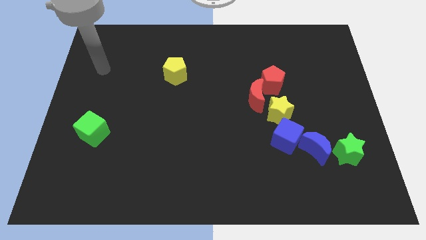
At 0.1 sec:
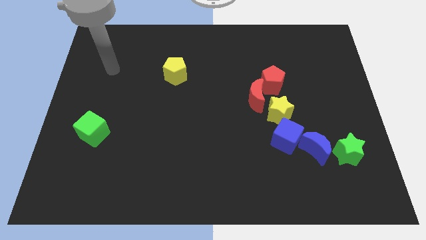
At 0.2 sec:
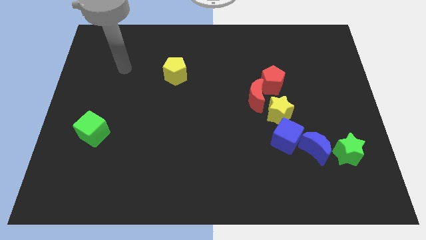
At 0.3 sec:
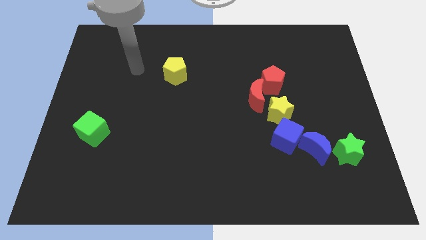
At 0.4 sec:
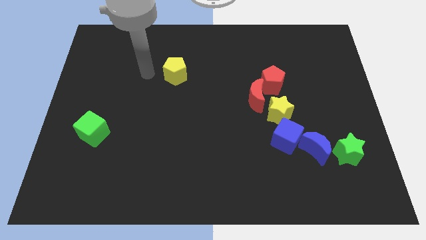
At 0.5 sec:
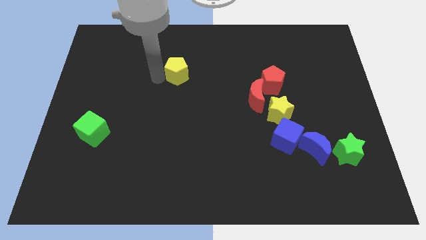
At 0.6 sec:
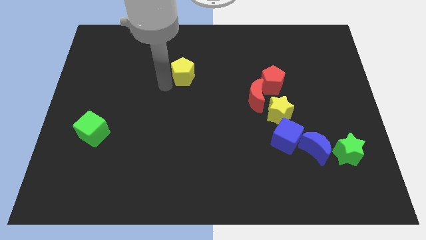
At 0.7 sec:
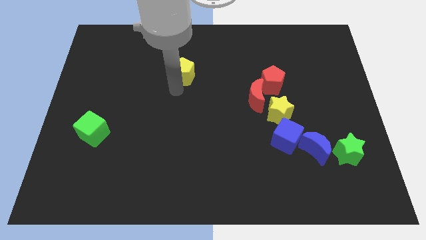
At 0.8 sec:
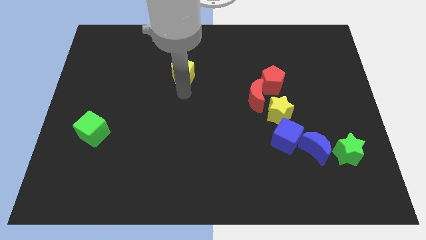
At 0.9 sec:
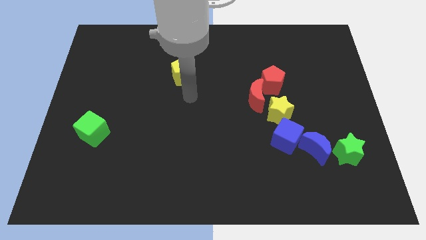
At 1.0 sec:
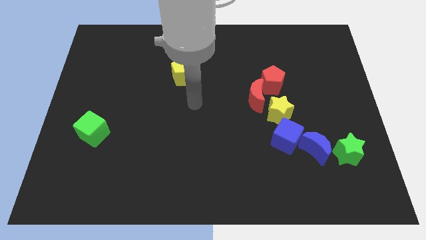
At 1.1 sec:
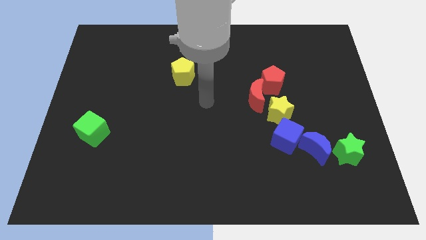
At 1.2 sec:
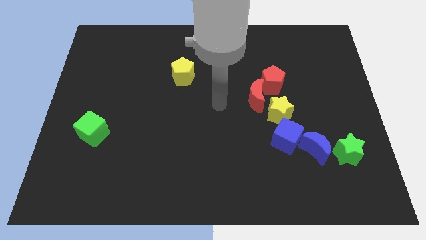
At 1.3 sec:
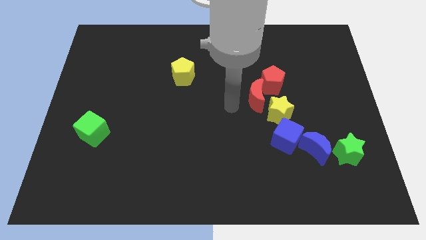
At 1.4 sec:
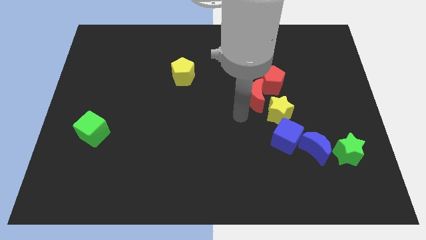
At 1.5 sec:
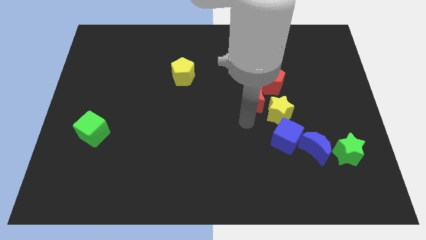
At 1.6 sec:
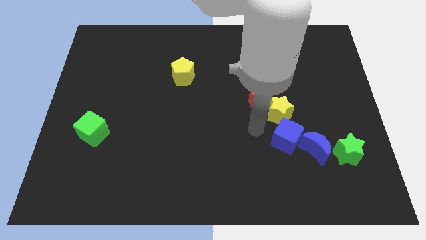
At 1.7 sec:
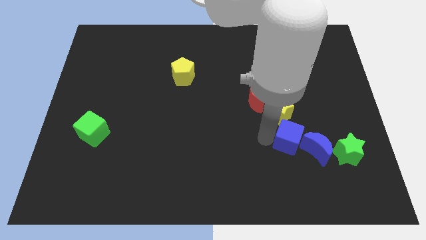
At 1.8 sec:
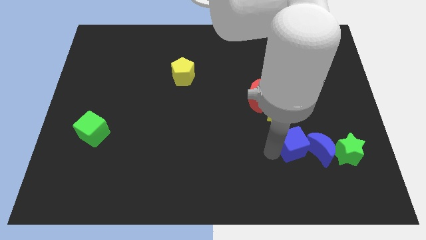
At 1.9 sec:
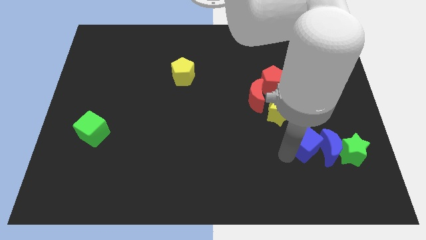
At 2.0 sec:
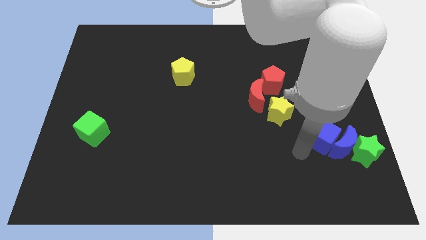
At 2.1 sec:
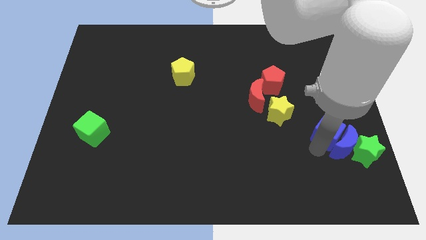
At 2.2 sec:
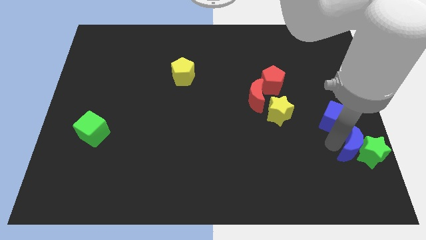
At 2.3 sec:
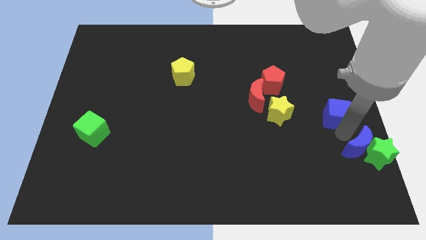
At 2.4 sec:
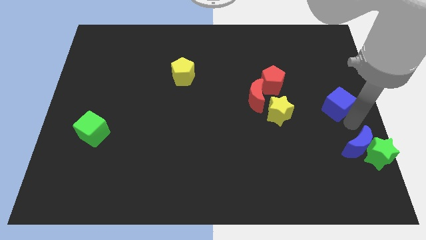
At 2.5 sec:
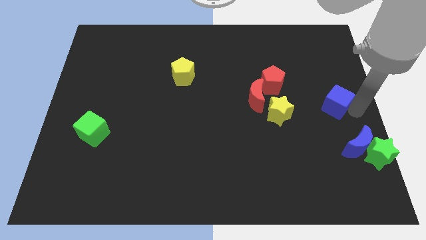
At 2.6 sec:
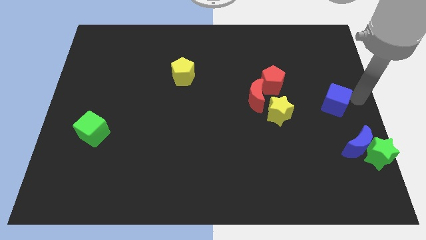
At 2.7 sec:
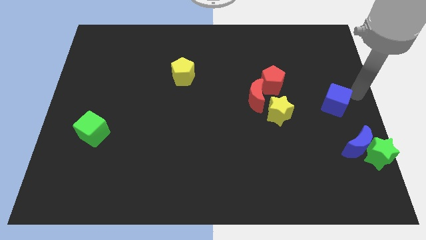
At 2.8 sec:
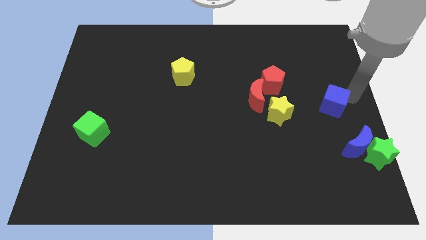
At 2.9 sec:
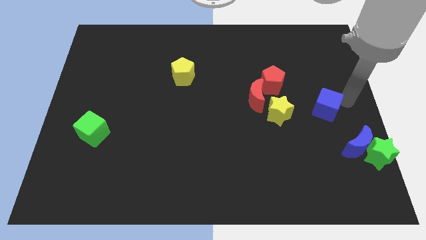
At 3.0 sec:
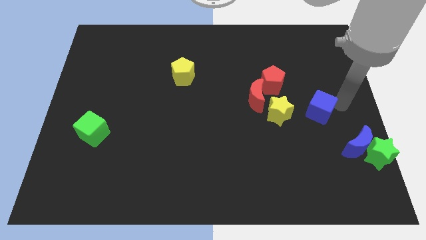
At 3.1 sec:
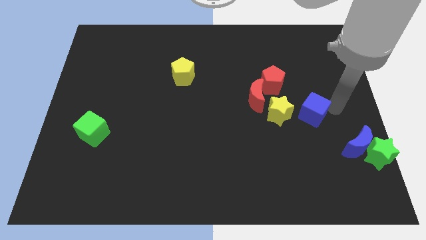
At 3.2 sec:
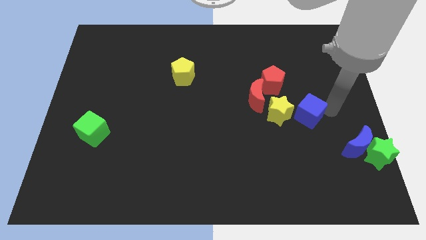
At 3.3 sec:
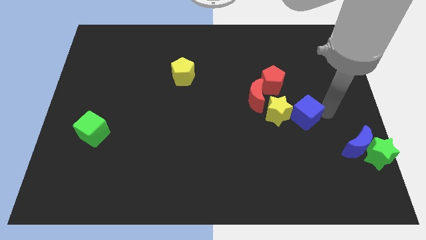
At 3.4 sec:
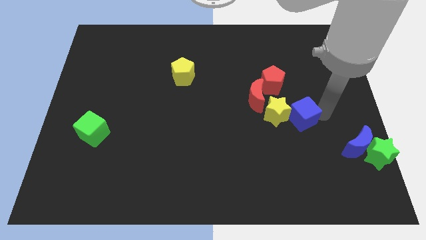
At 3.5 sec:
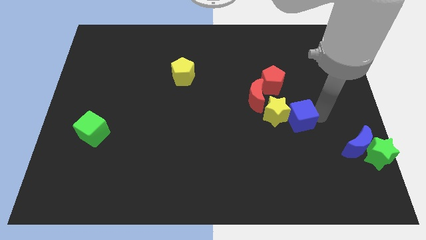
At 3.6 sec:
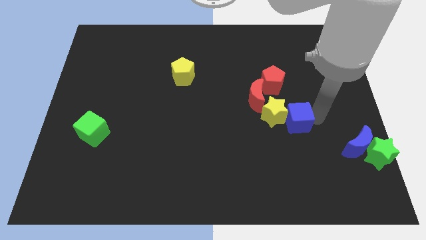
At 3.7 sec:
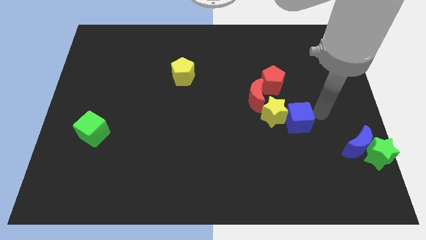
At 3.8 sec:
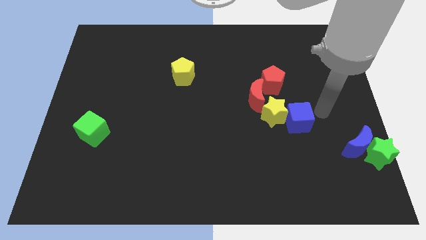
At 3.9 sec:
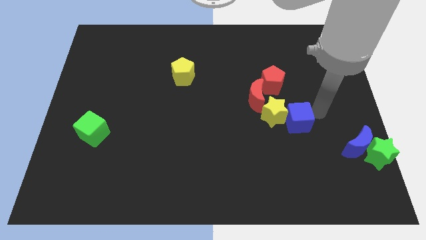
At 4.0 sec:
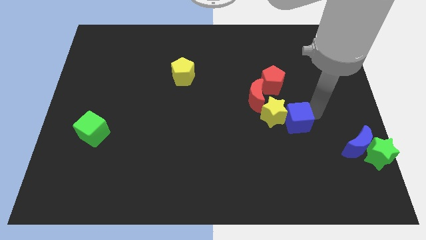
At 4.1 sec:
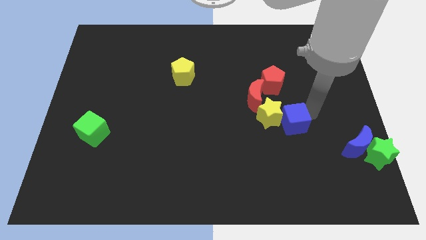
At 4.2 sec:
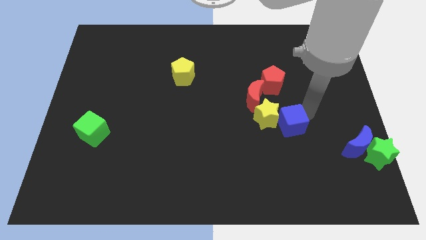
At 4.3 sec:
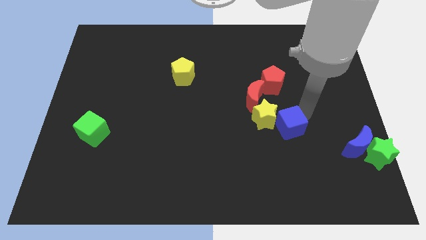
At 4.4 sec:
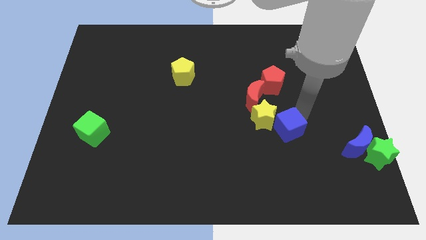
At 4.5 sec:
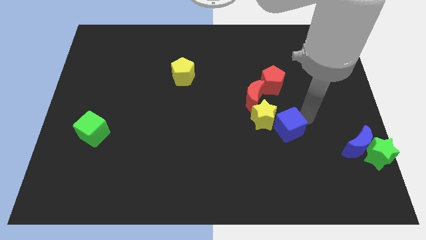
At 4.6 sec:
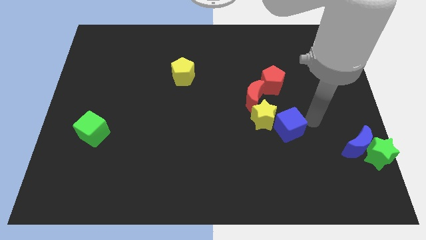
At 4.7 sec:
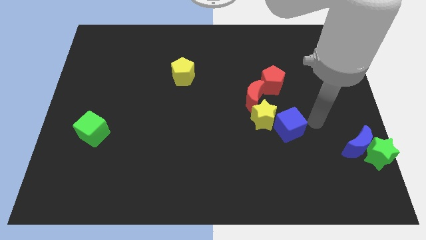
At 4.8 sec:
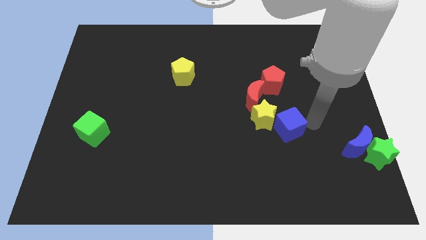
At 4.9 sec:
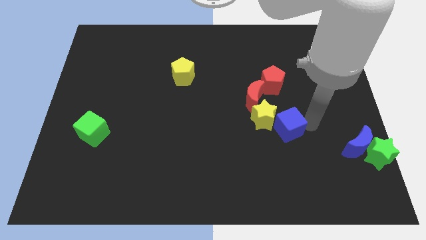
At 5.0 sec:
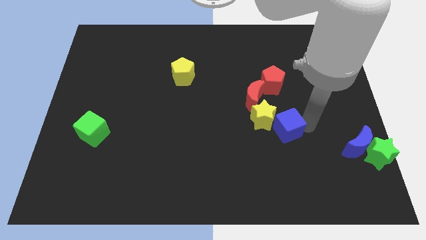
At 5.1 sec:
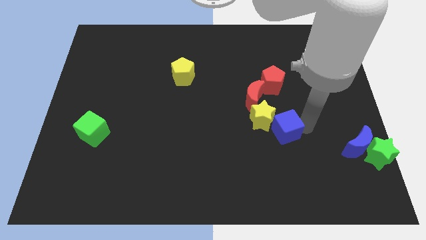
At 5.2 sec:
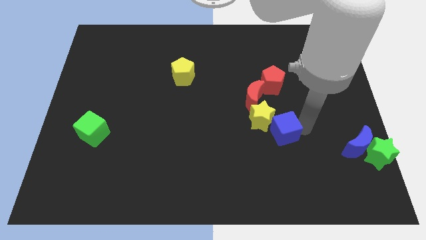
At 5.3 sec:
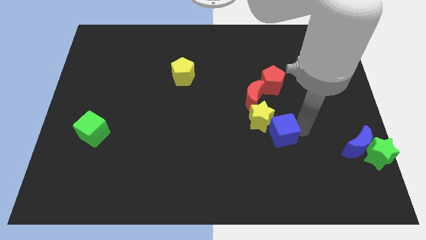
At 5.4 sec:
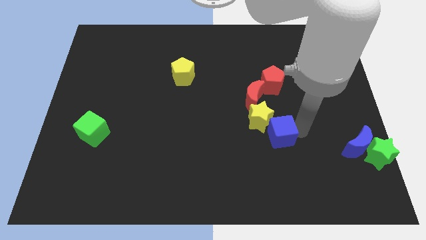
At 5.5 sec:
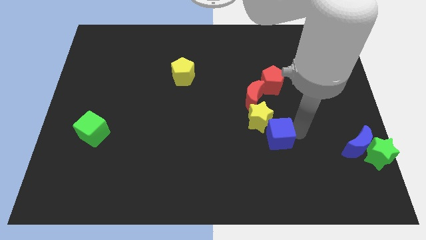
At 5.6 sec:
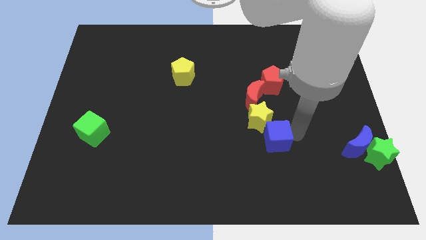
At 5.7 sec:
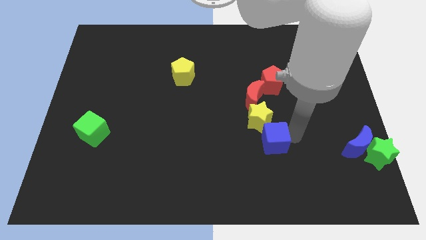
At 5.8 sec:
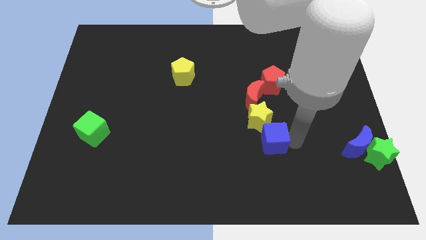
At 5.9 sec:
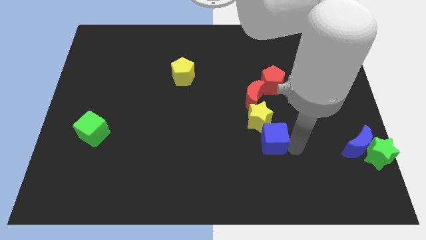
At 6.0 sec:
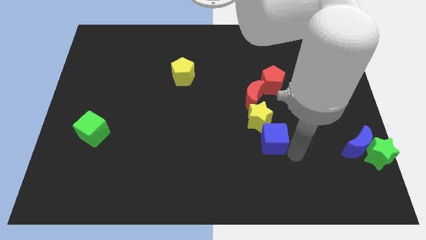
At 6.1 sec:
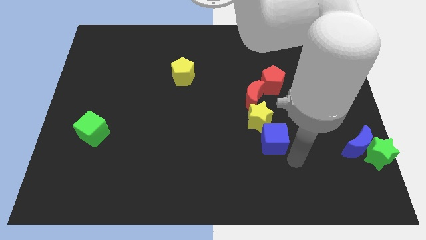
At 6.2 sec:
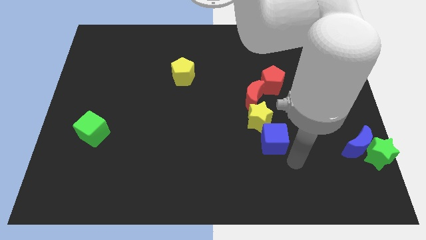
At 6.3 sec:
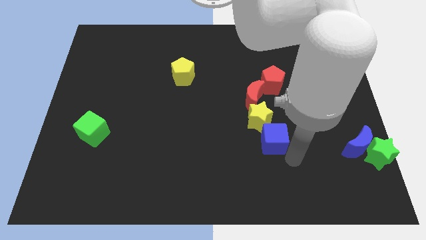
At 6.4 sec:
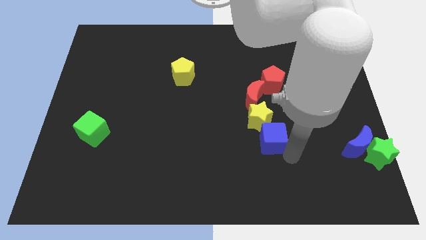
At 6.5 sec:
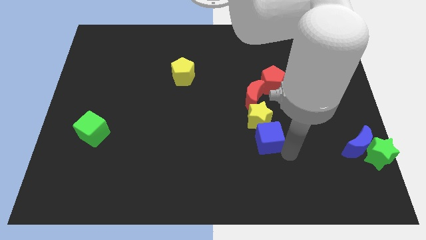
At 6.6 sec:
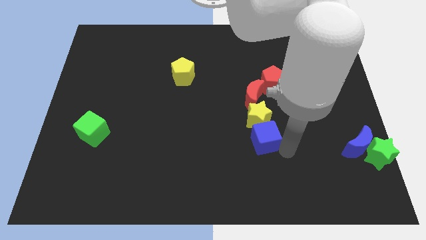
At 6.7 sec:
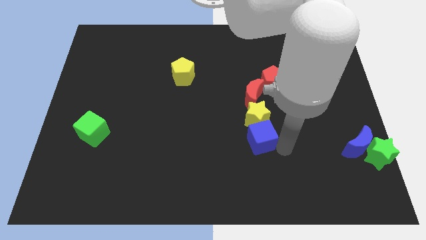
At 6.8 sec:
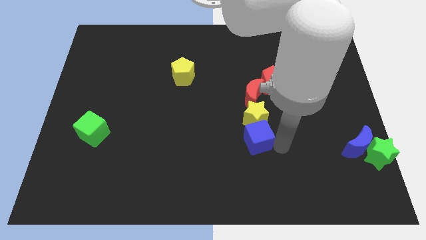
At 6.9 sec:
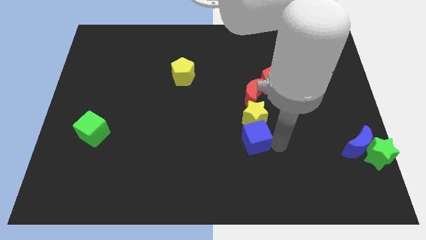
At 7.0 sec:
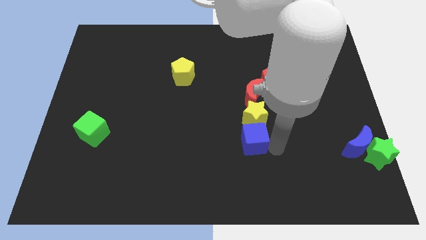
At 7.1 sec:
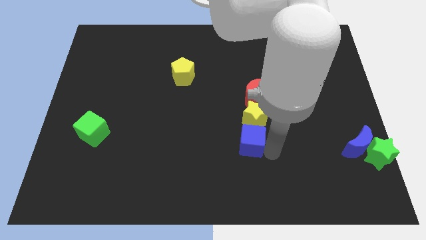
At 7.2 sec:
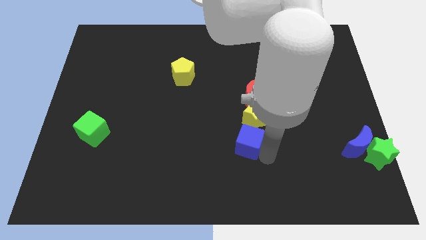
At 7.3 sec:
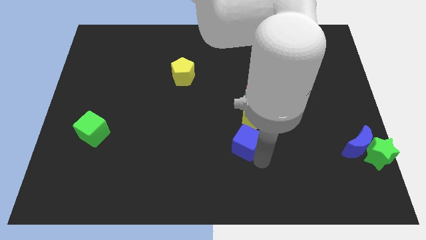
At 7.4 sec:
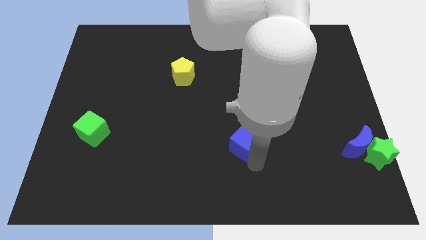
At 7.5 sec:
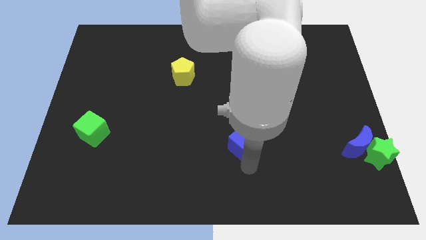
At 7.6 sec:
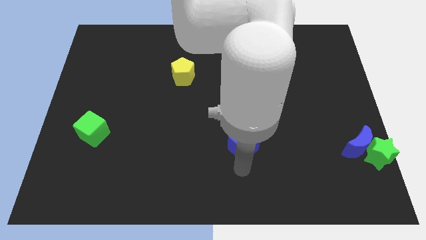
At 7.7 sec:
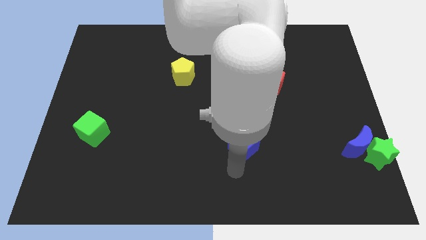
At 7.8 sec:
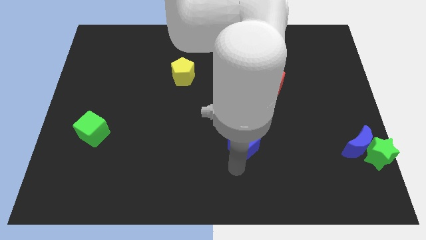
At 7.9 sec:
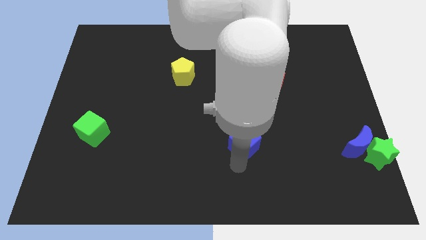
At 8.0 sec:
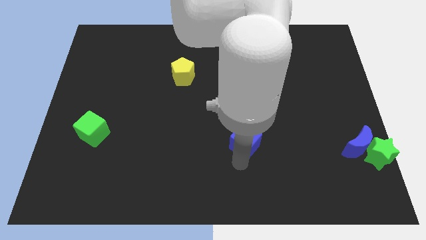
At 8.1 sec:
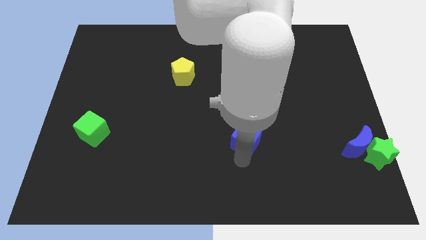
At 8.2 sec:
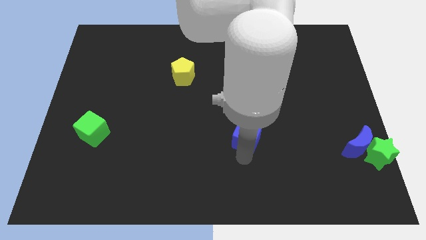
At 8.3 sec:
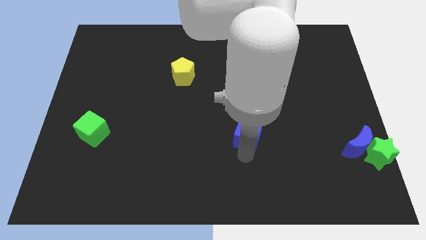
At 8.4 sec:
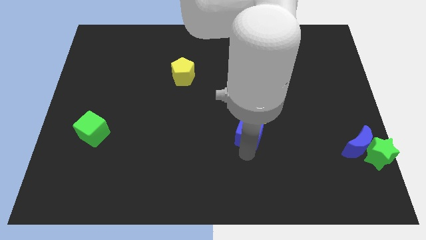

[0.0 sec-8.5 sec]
push the blue cube to the middle
